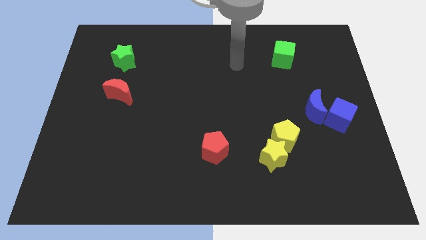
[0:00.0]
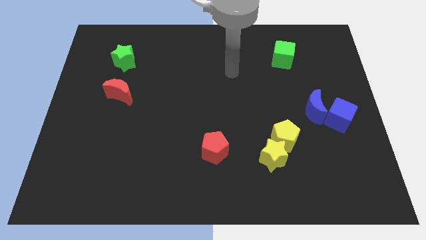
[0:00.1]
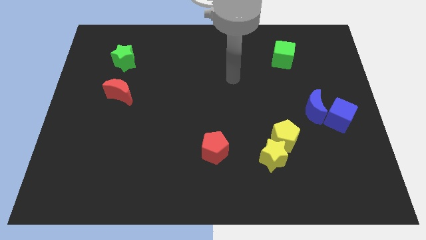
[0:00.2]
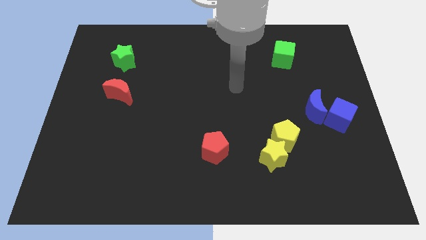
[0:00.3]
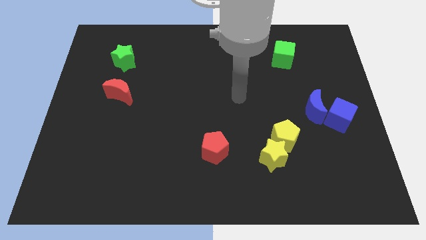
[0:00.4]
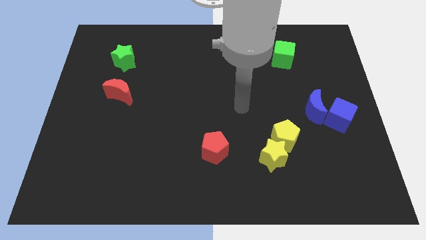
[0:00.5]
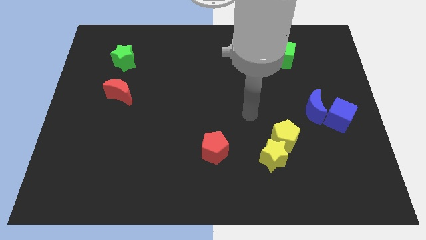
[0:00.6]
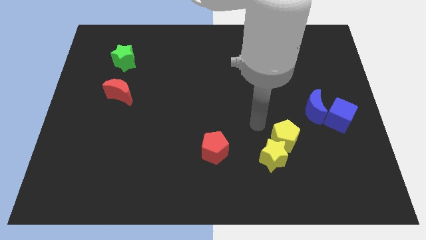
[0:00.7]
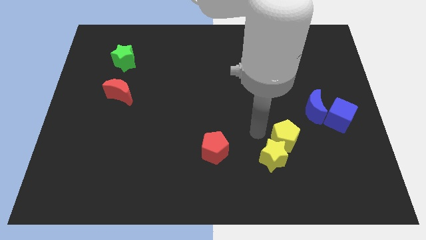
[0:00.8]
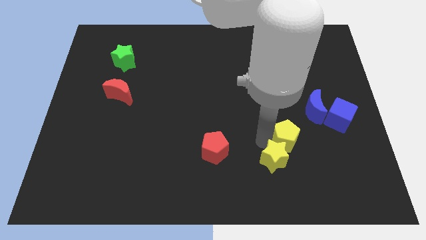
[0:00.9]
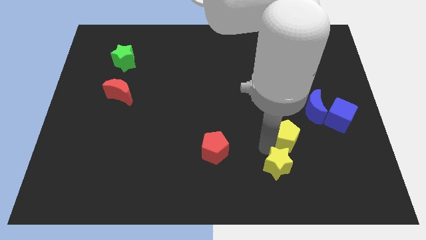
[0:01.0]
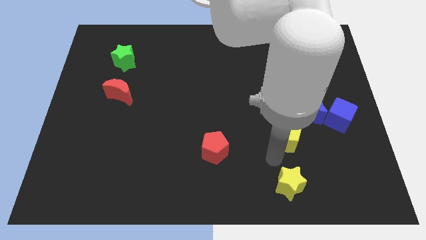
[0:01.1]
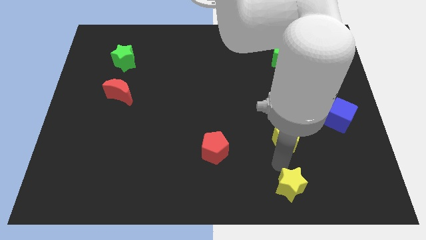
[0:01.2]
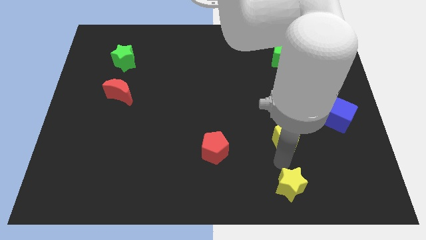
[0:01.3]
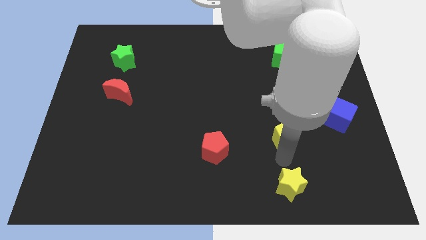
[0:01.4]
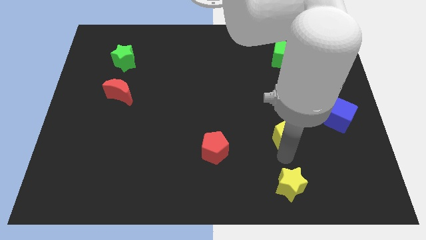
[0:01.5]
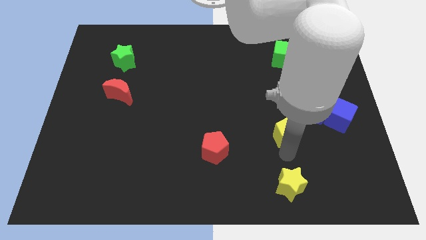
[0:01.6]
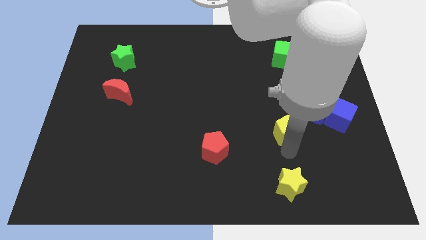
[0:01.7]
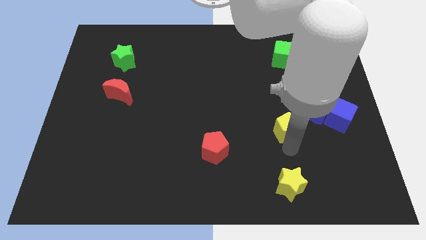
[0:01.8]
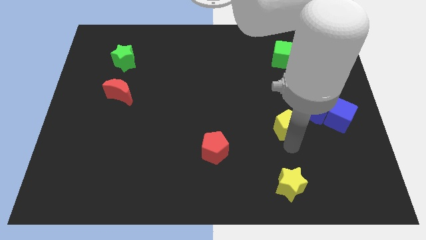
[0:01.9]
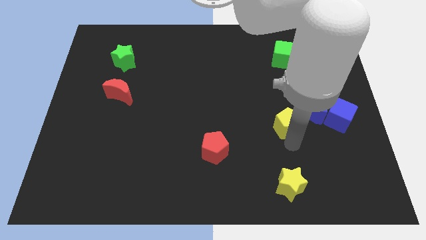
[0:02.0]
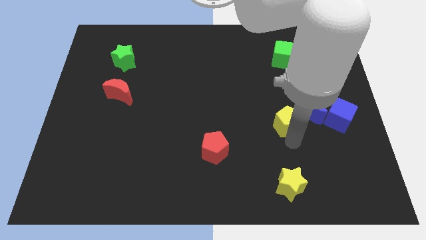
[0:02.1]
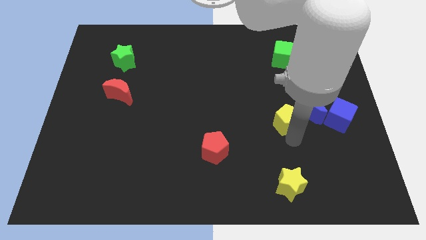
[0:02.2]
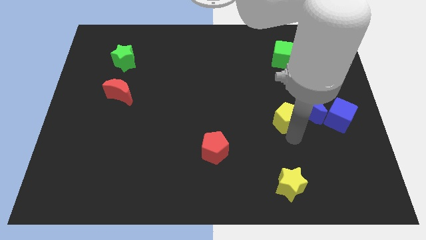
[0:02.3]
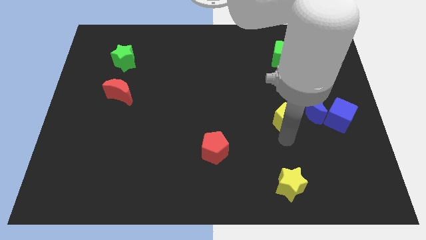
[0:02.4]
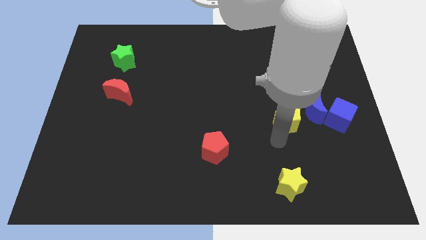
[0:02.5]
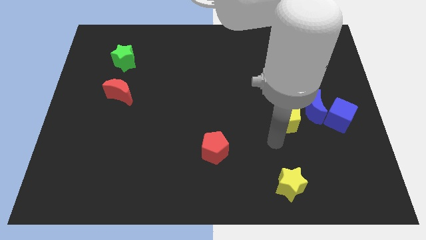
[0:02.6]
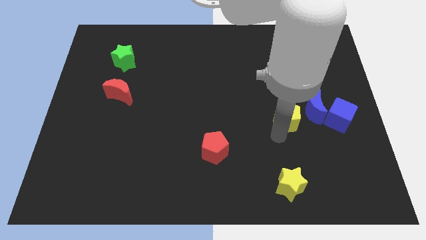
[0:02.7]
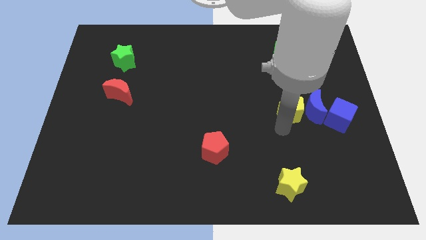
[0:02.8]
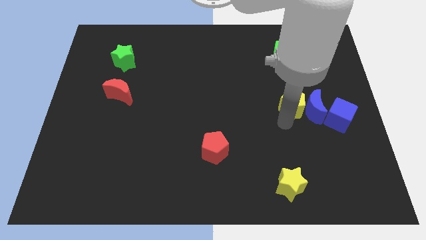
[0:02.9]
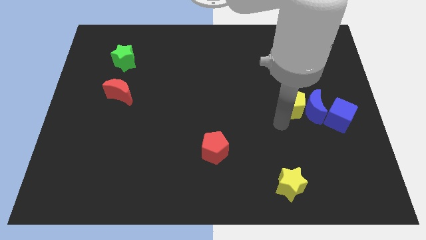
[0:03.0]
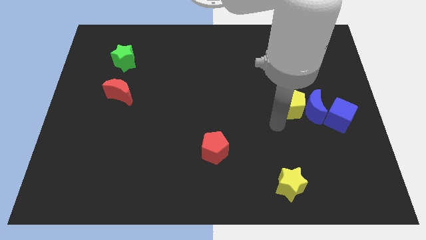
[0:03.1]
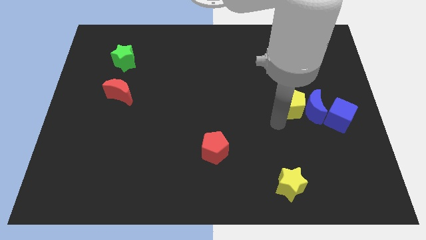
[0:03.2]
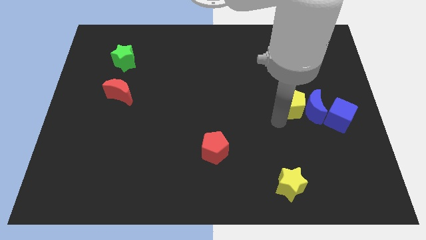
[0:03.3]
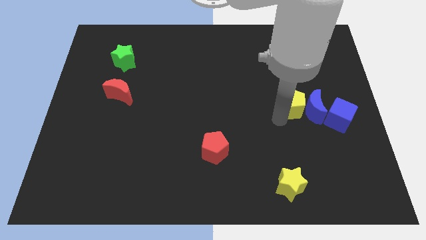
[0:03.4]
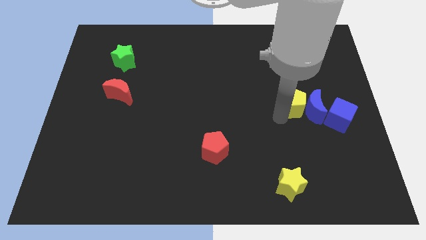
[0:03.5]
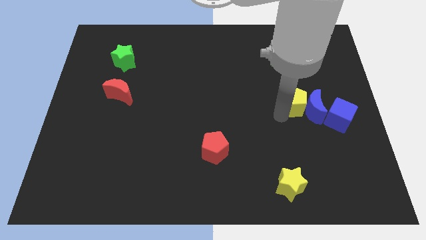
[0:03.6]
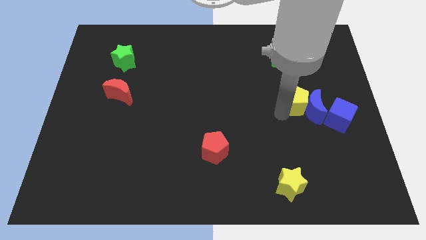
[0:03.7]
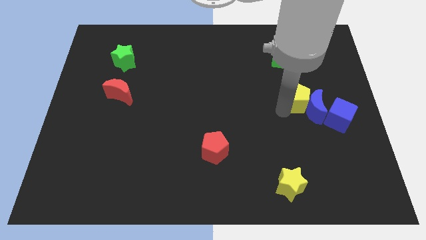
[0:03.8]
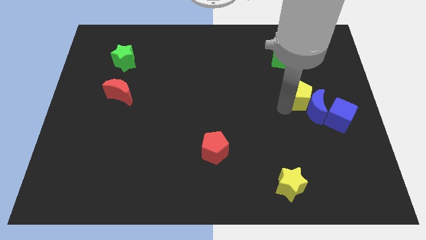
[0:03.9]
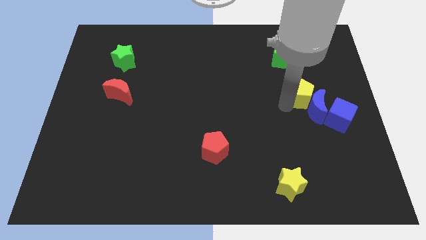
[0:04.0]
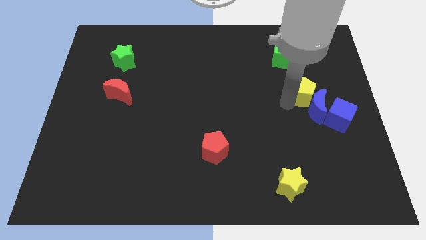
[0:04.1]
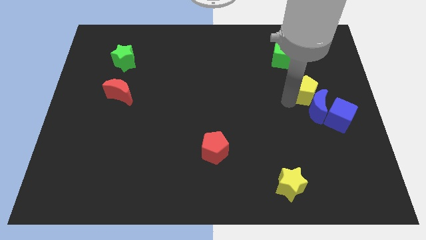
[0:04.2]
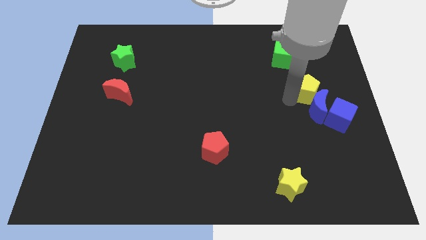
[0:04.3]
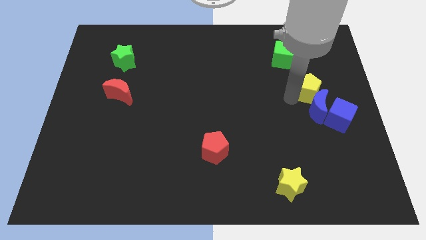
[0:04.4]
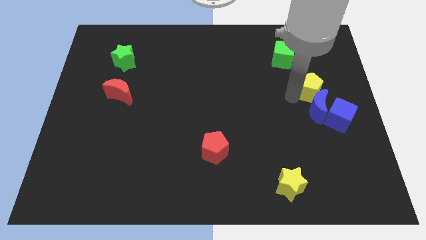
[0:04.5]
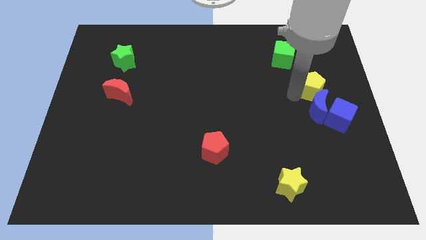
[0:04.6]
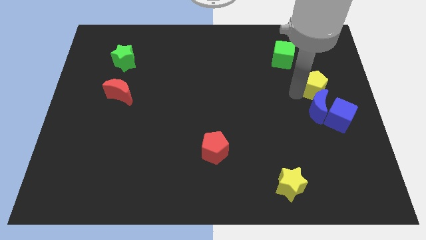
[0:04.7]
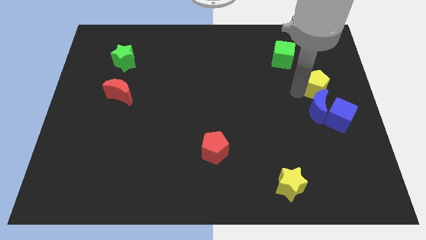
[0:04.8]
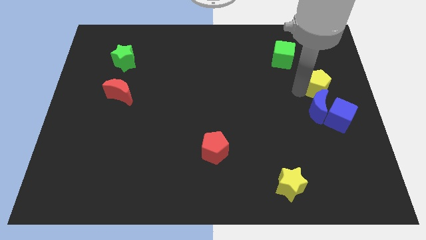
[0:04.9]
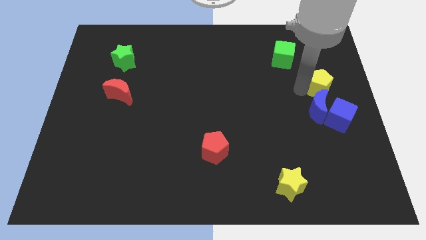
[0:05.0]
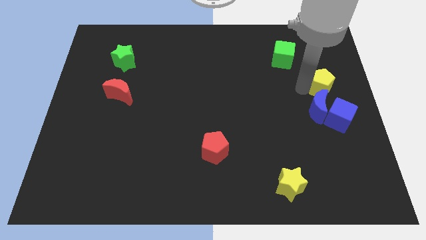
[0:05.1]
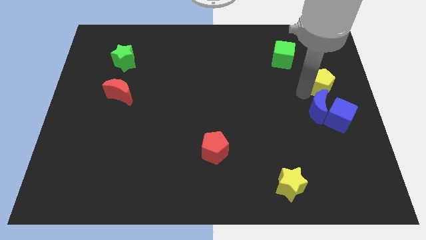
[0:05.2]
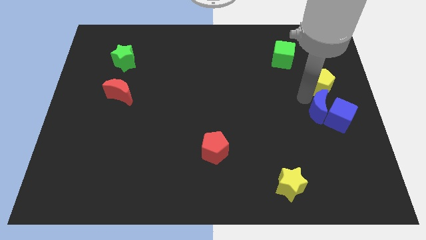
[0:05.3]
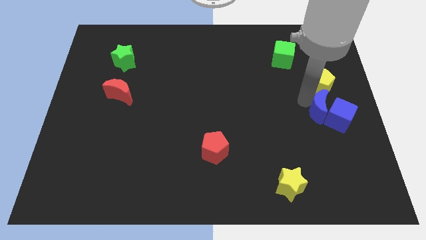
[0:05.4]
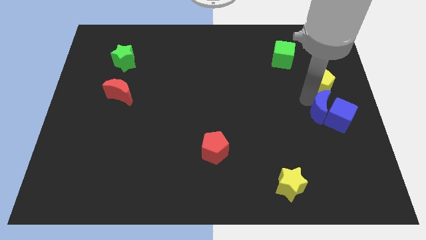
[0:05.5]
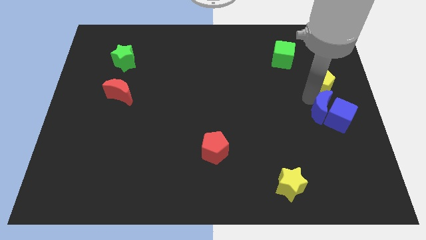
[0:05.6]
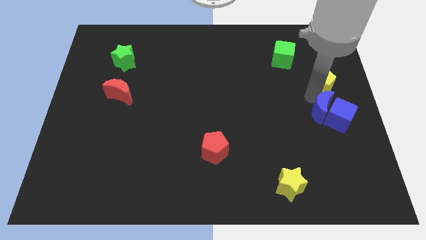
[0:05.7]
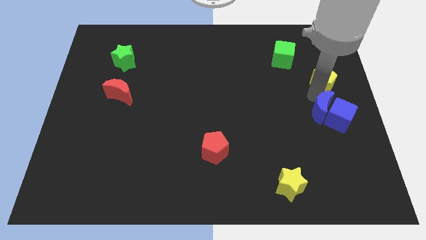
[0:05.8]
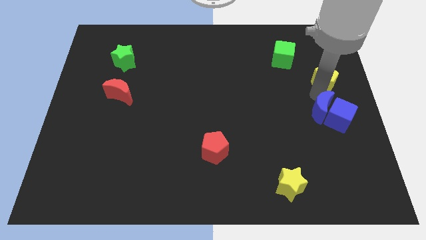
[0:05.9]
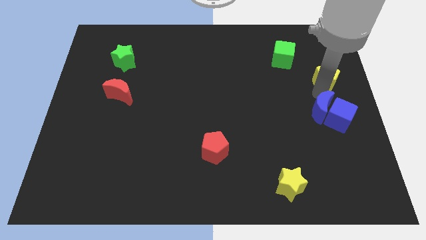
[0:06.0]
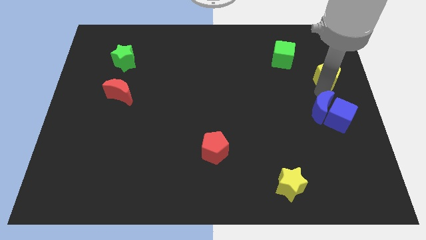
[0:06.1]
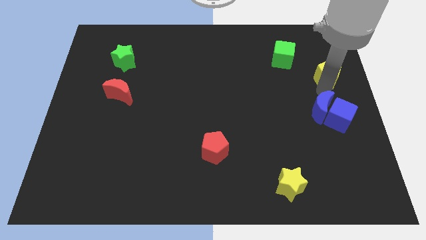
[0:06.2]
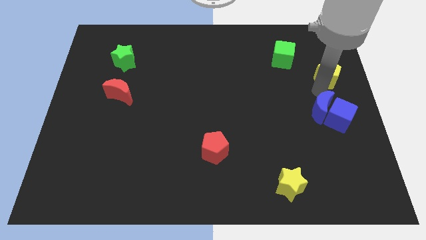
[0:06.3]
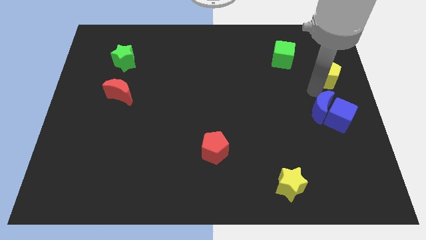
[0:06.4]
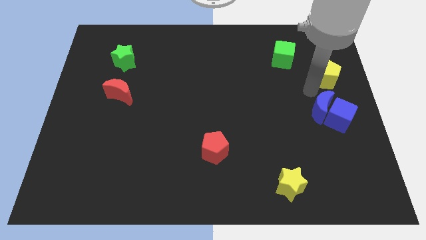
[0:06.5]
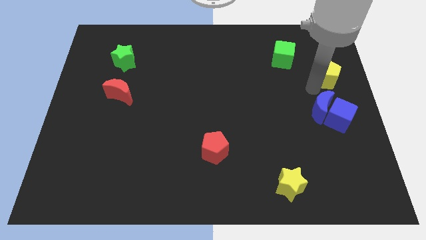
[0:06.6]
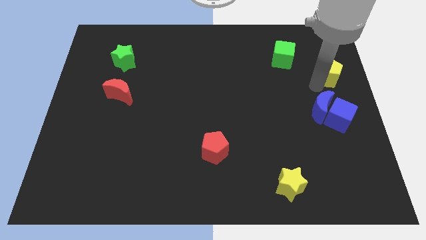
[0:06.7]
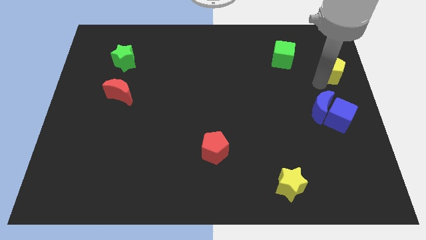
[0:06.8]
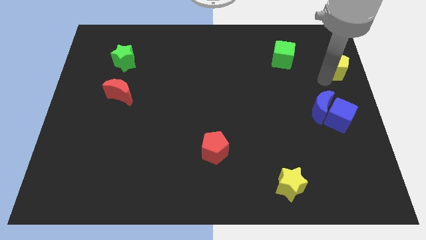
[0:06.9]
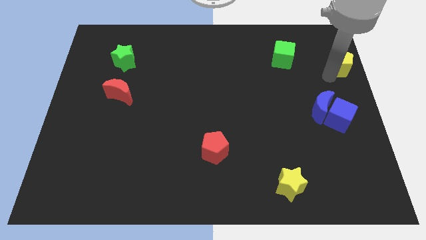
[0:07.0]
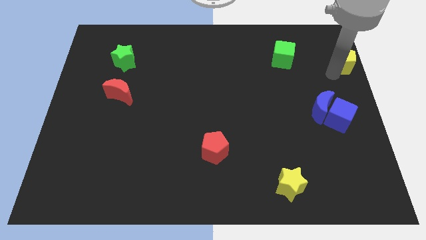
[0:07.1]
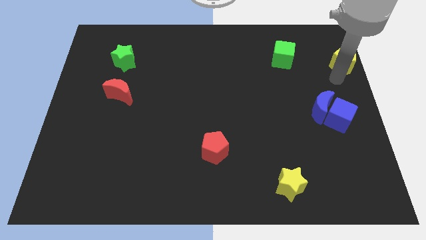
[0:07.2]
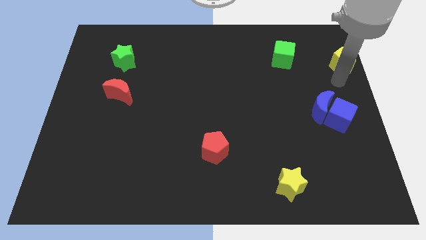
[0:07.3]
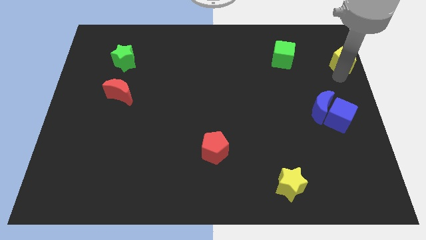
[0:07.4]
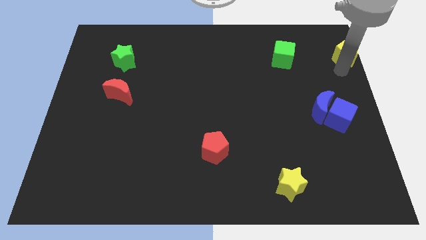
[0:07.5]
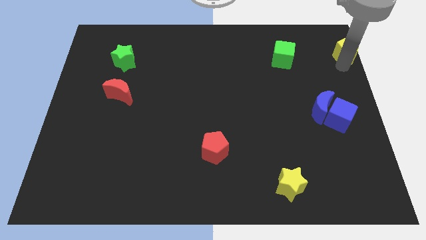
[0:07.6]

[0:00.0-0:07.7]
move the yellow pentagon to the top right corner
